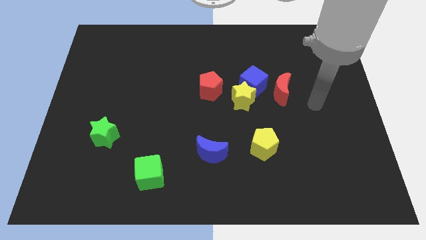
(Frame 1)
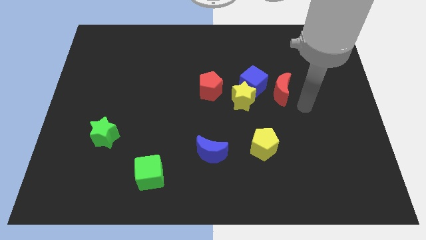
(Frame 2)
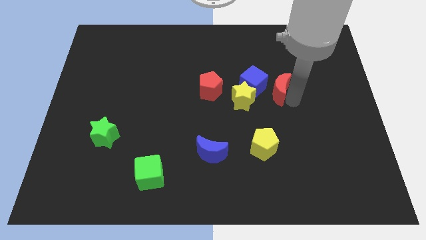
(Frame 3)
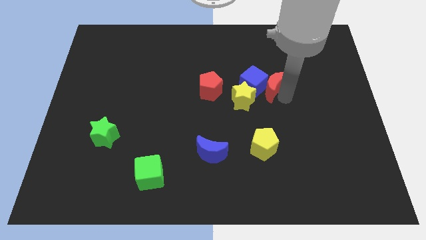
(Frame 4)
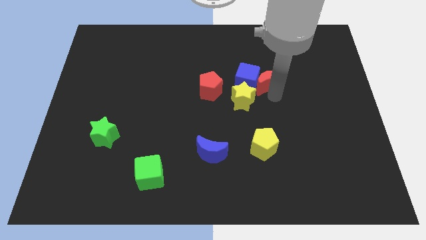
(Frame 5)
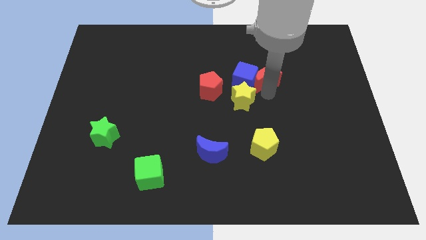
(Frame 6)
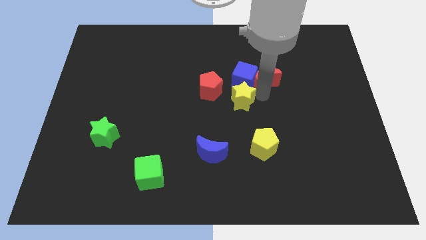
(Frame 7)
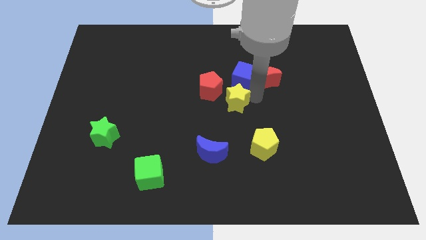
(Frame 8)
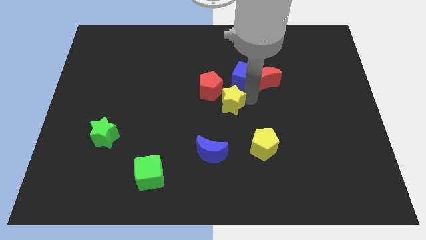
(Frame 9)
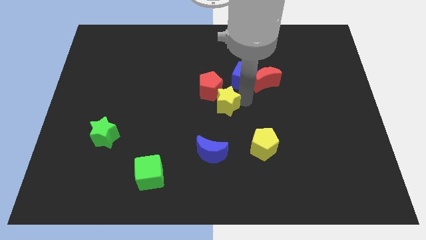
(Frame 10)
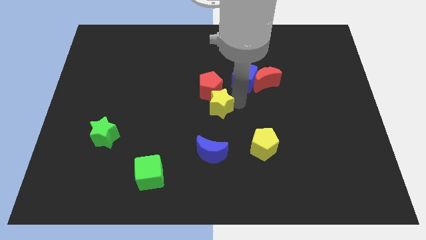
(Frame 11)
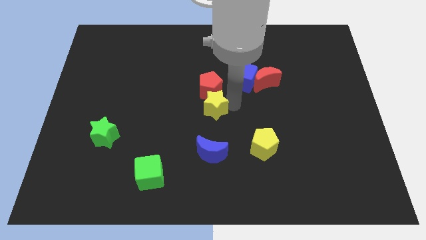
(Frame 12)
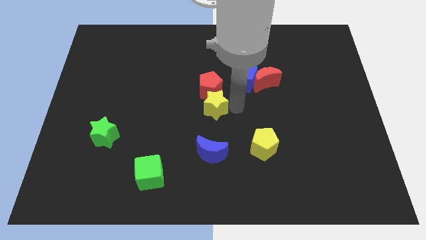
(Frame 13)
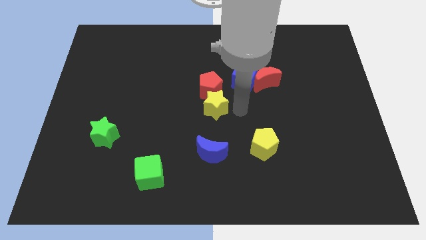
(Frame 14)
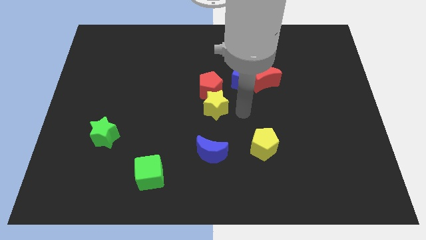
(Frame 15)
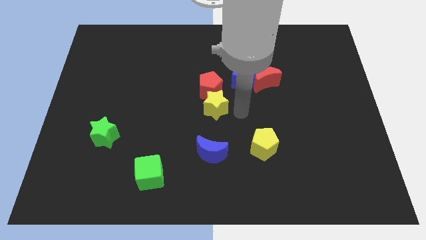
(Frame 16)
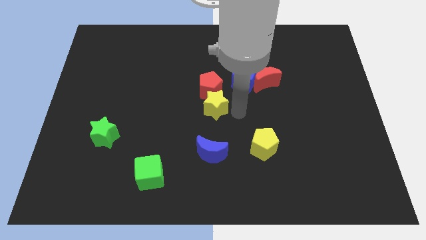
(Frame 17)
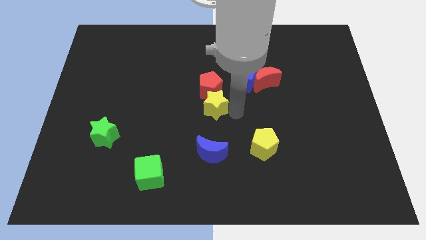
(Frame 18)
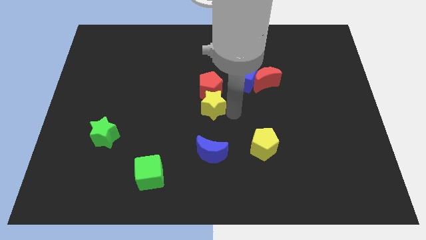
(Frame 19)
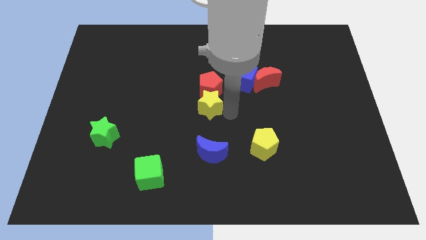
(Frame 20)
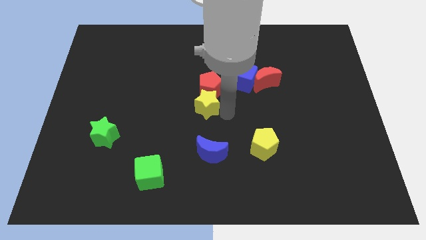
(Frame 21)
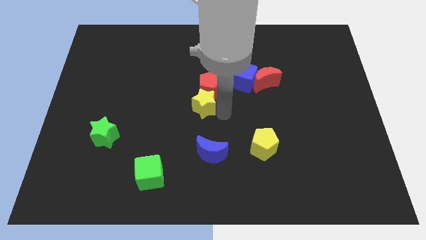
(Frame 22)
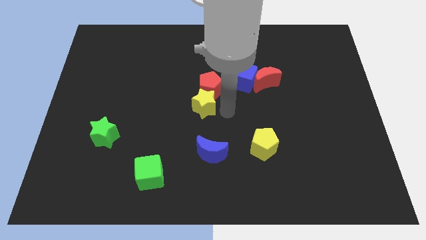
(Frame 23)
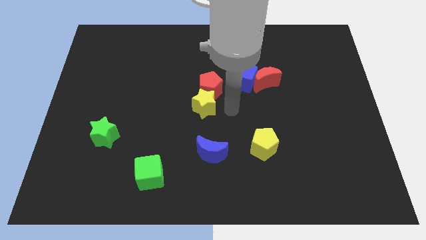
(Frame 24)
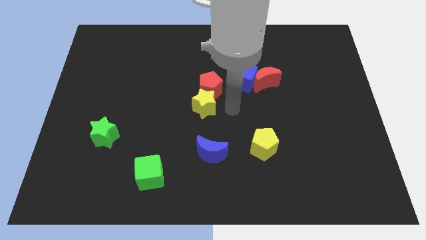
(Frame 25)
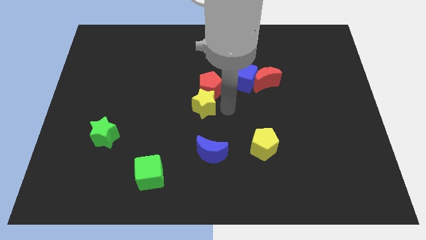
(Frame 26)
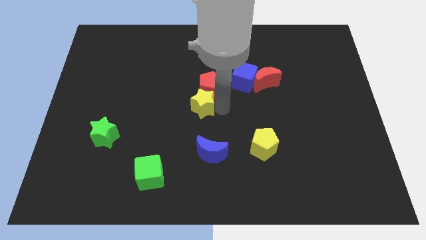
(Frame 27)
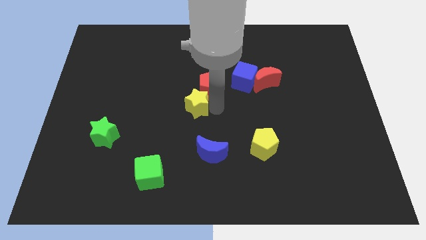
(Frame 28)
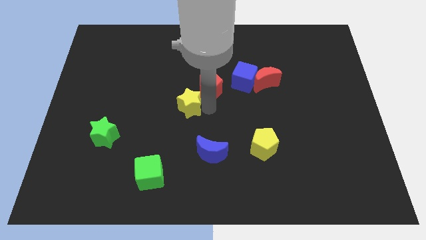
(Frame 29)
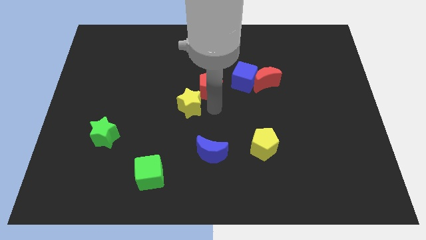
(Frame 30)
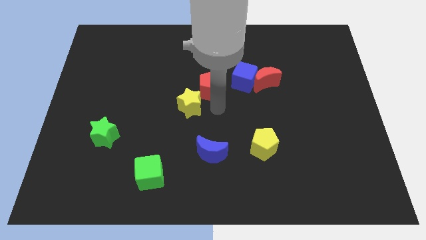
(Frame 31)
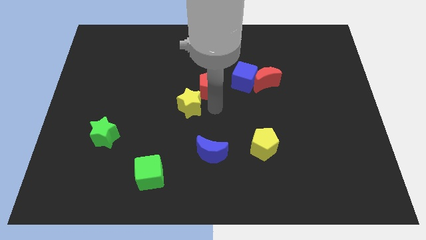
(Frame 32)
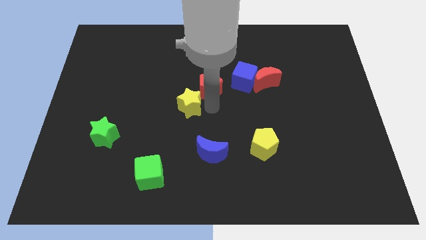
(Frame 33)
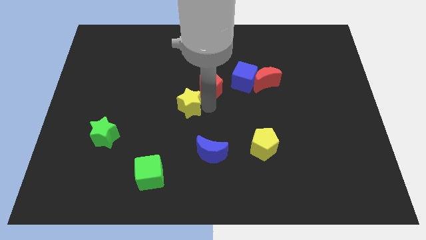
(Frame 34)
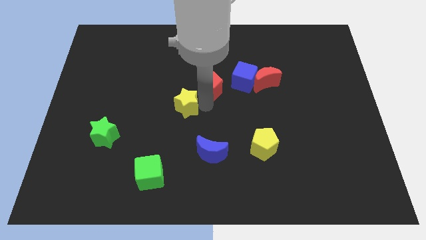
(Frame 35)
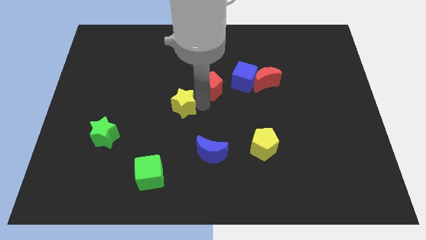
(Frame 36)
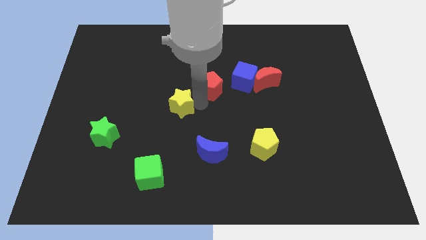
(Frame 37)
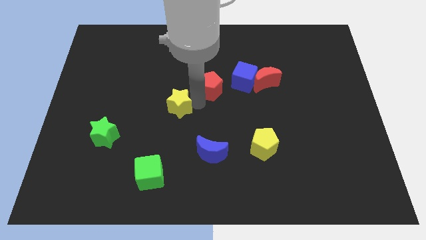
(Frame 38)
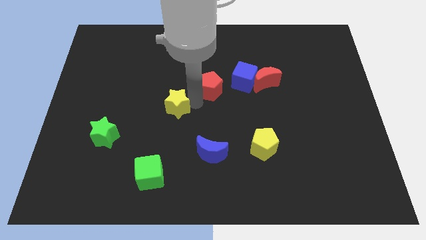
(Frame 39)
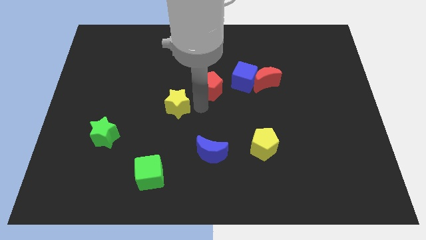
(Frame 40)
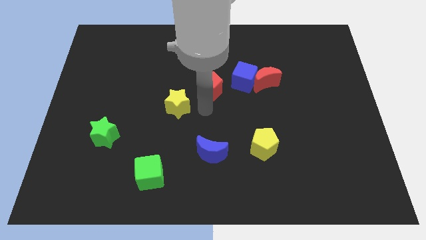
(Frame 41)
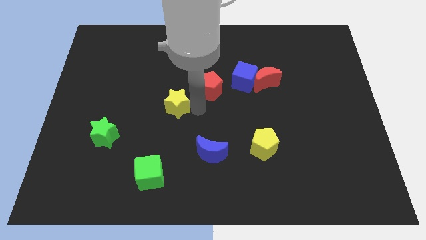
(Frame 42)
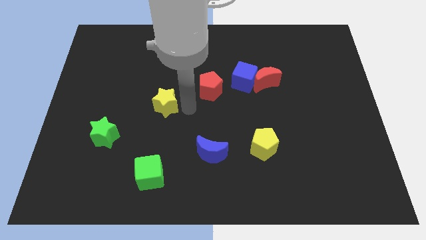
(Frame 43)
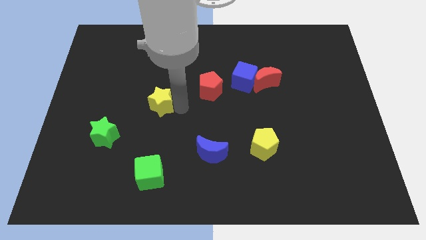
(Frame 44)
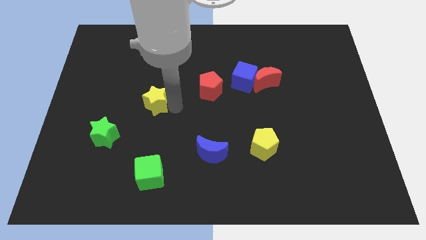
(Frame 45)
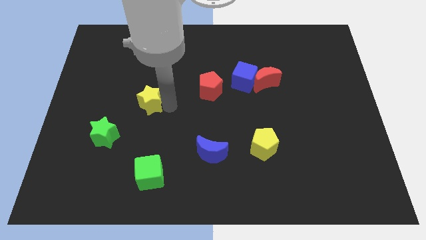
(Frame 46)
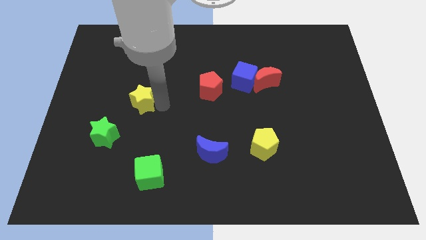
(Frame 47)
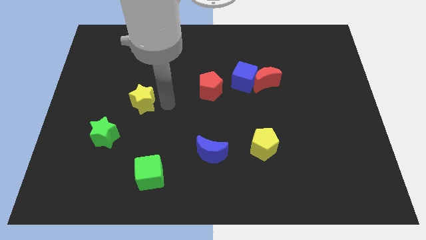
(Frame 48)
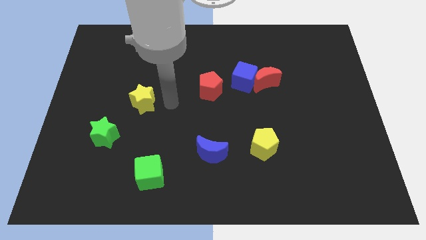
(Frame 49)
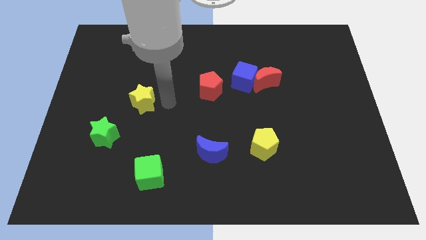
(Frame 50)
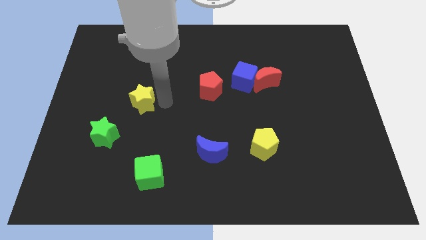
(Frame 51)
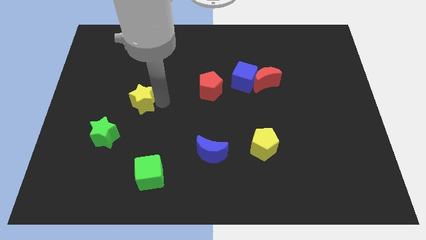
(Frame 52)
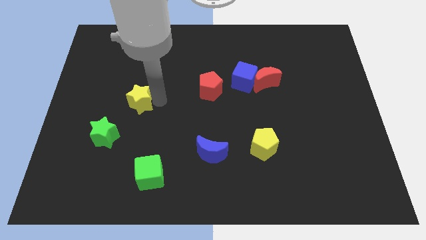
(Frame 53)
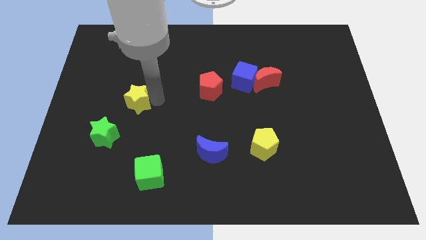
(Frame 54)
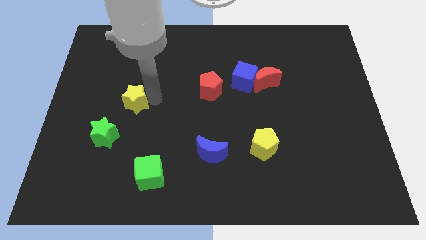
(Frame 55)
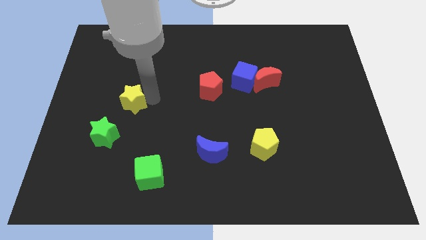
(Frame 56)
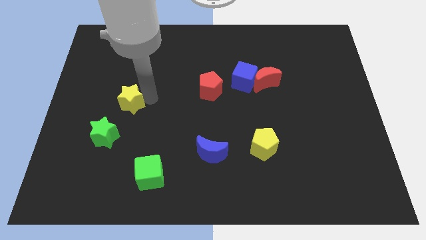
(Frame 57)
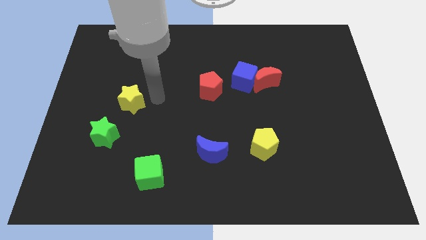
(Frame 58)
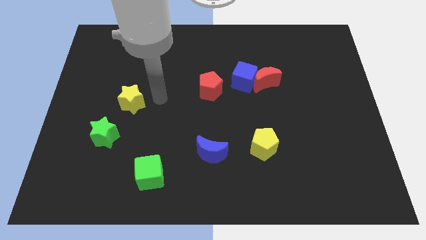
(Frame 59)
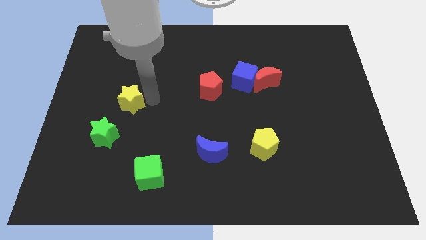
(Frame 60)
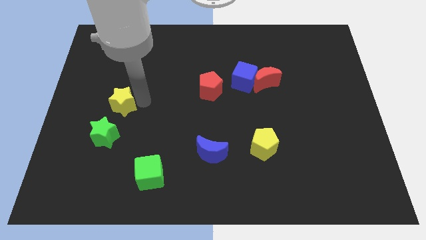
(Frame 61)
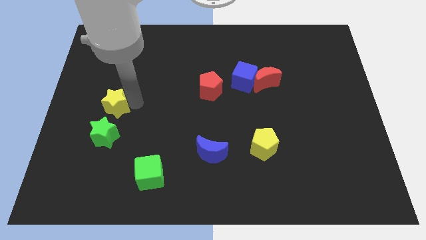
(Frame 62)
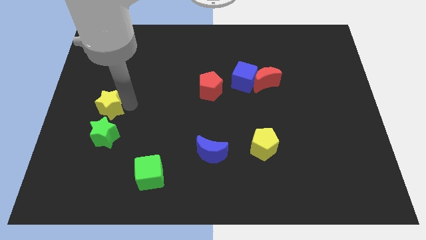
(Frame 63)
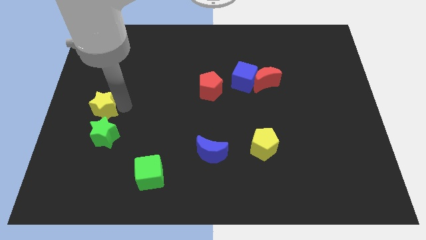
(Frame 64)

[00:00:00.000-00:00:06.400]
push the yellow star to the center left
